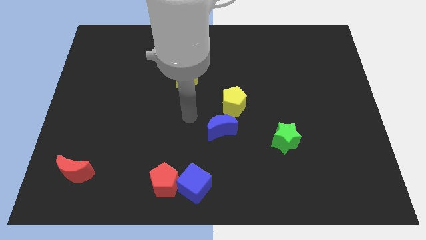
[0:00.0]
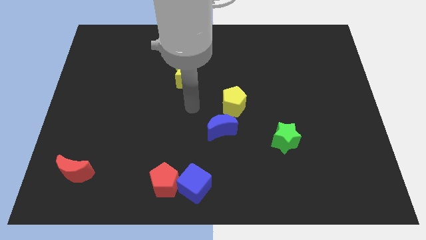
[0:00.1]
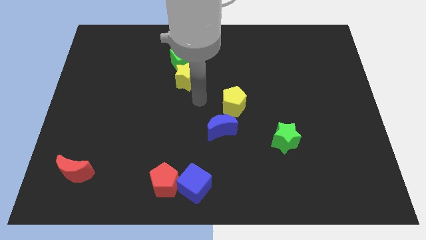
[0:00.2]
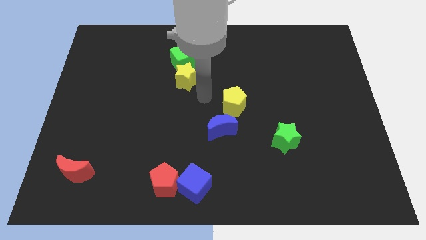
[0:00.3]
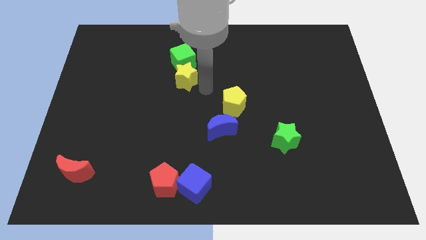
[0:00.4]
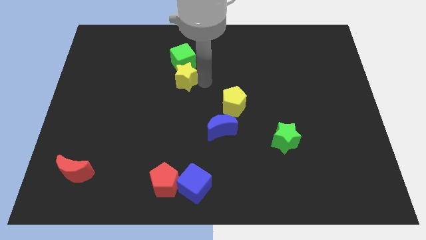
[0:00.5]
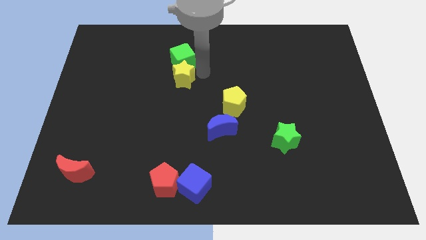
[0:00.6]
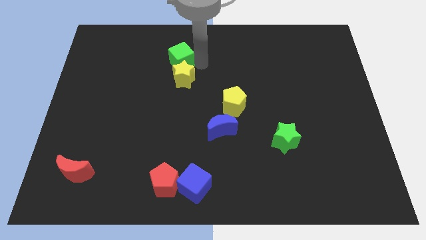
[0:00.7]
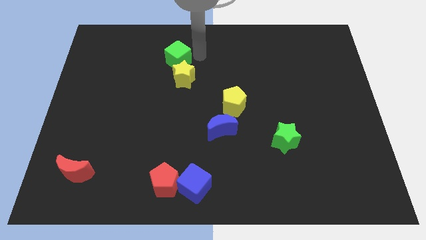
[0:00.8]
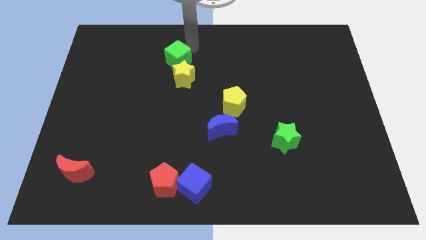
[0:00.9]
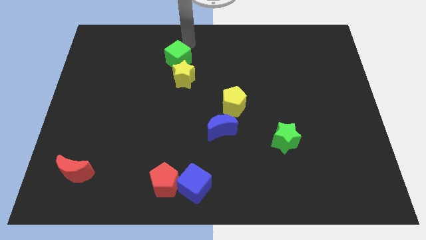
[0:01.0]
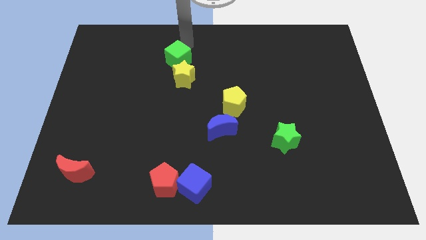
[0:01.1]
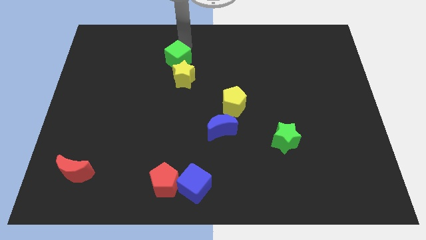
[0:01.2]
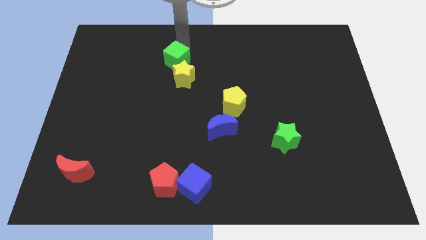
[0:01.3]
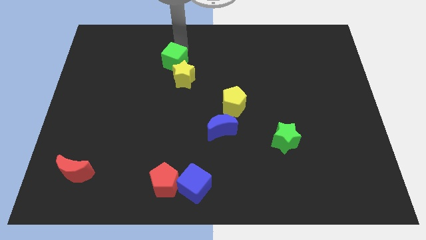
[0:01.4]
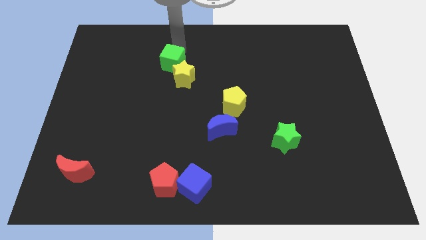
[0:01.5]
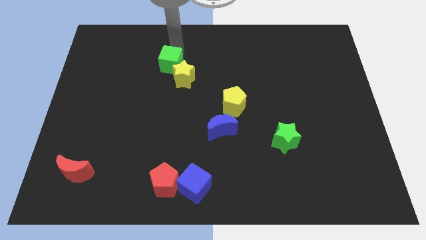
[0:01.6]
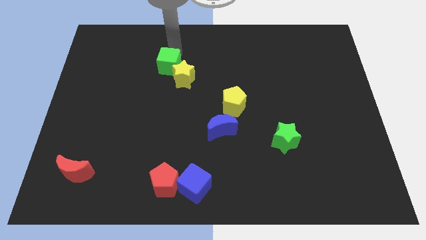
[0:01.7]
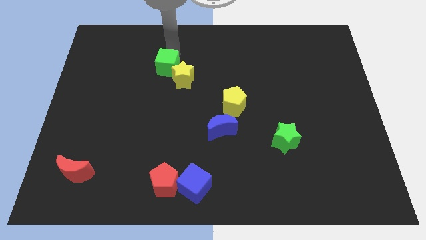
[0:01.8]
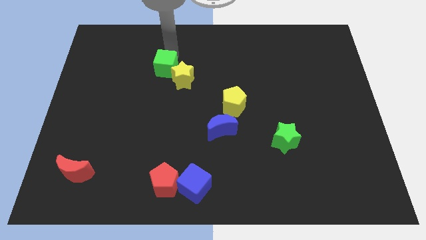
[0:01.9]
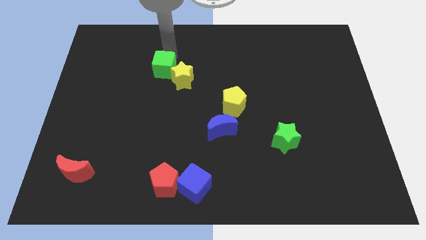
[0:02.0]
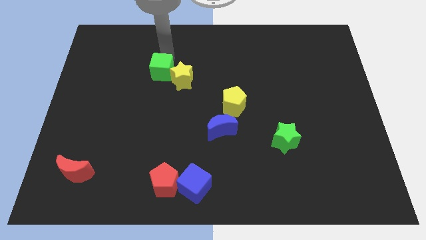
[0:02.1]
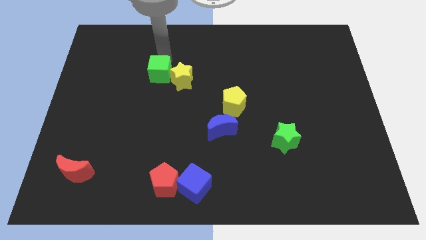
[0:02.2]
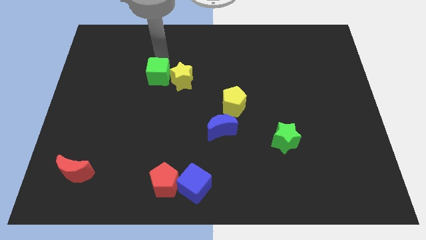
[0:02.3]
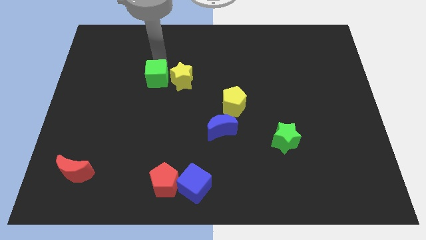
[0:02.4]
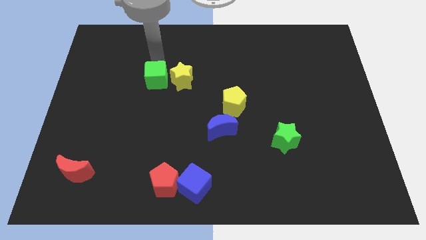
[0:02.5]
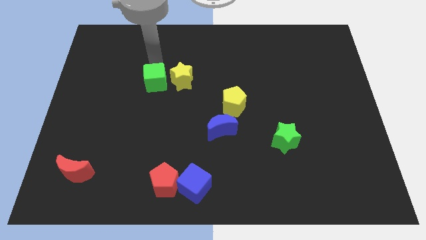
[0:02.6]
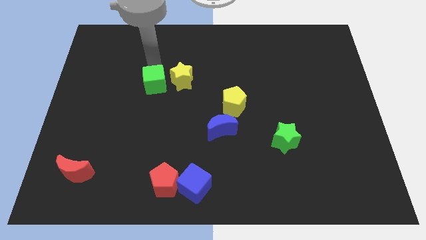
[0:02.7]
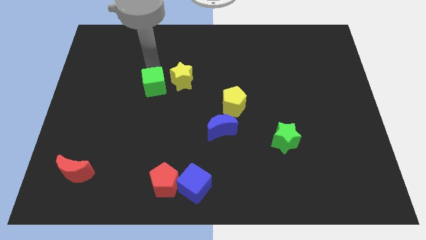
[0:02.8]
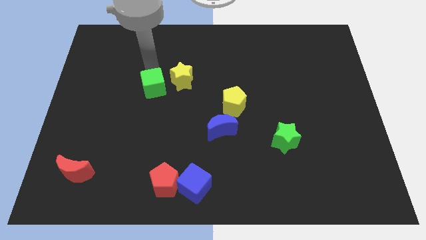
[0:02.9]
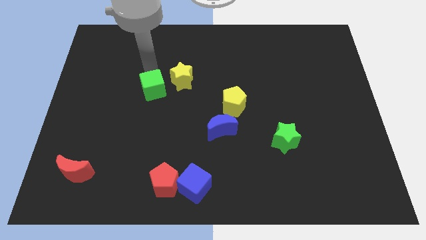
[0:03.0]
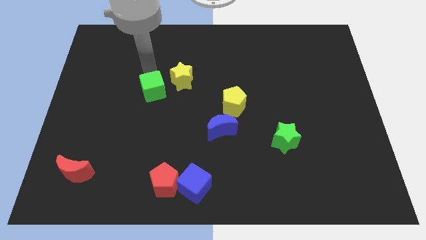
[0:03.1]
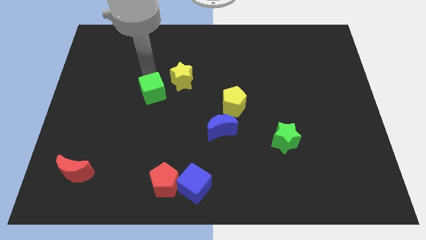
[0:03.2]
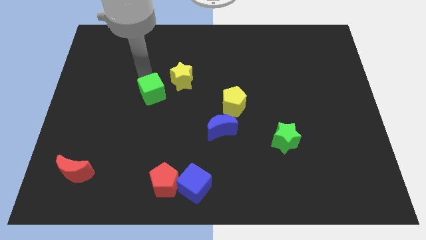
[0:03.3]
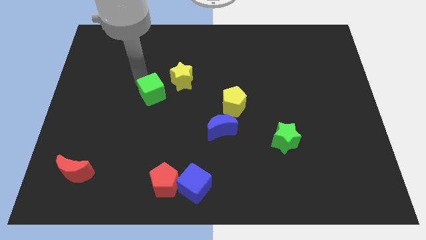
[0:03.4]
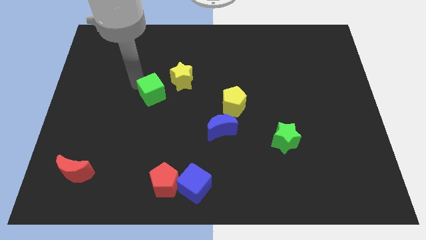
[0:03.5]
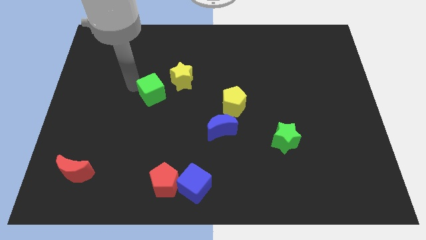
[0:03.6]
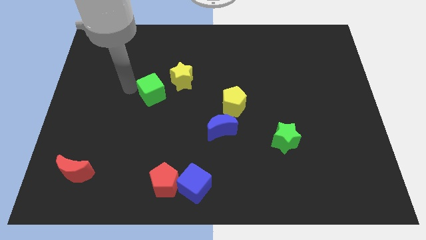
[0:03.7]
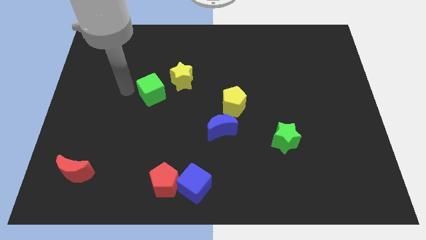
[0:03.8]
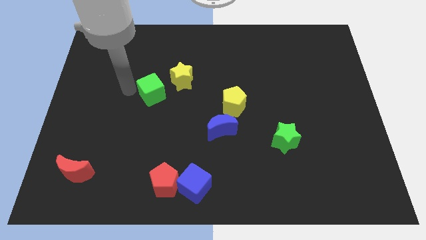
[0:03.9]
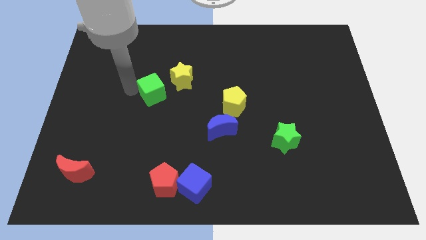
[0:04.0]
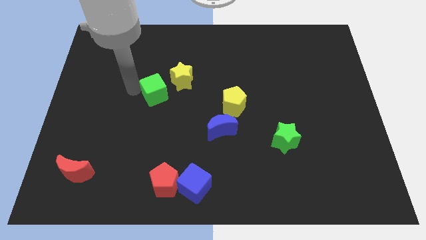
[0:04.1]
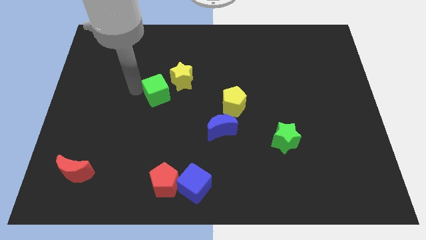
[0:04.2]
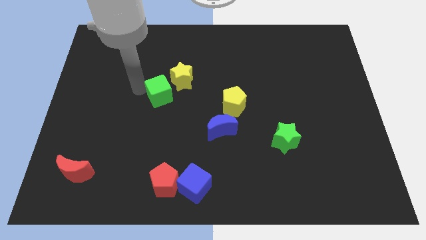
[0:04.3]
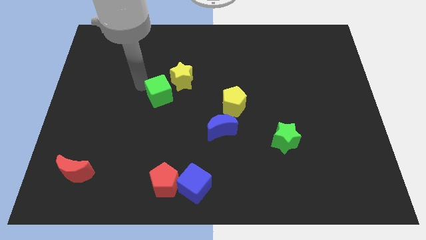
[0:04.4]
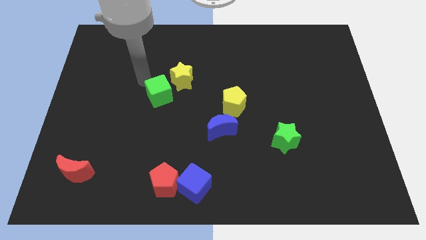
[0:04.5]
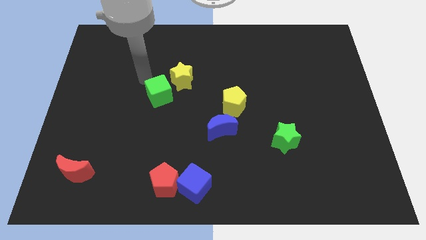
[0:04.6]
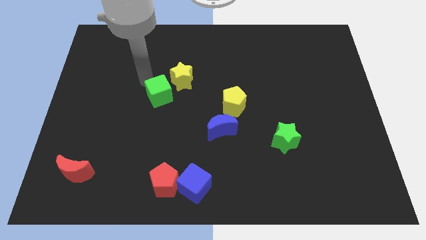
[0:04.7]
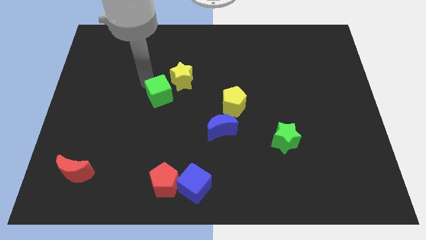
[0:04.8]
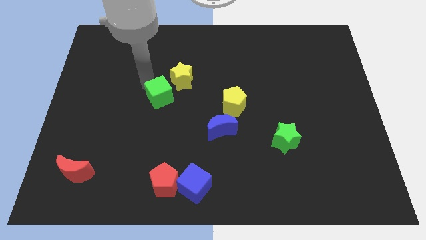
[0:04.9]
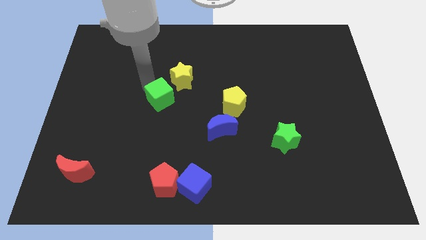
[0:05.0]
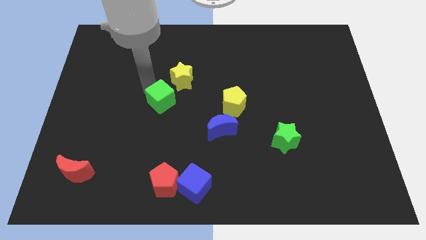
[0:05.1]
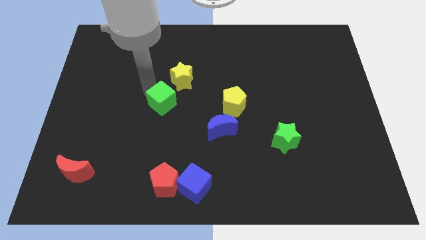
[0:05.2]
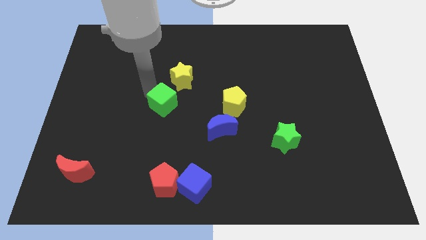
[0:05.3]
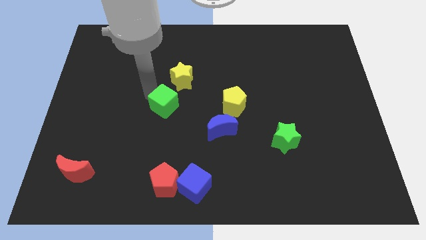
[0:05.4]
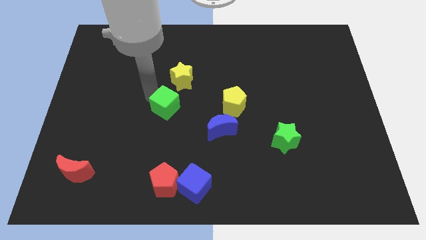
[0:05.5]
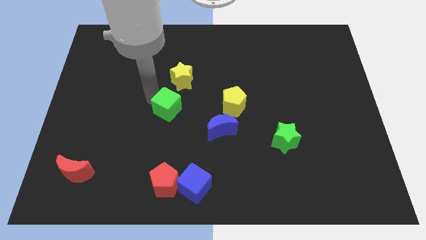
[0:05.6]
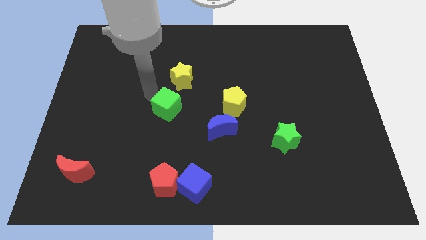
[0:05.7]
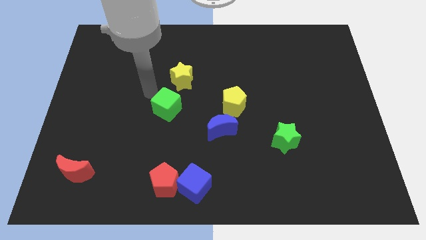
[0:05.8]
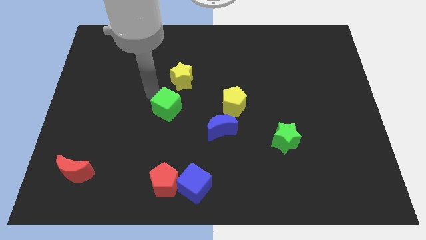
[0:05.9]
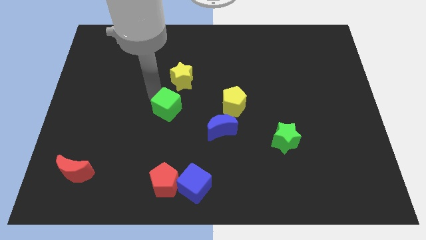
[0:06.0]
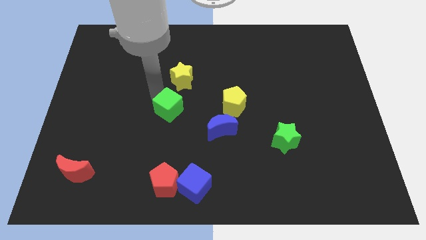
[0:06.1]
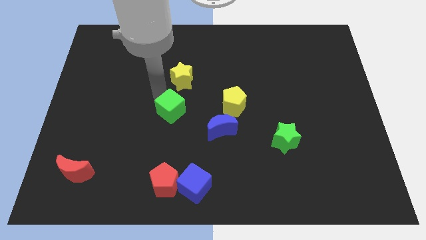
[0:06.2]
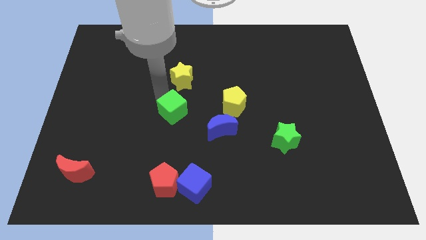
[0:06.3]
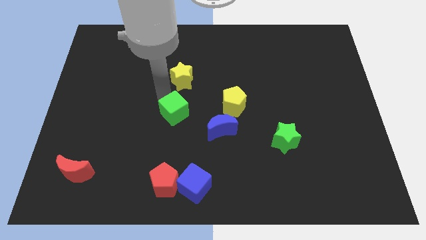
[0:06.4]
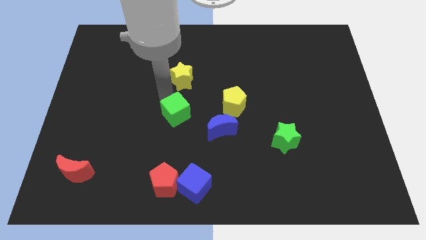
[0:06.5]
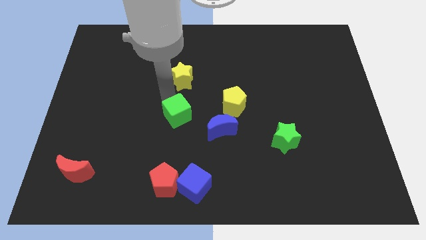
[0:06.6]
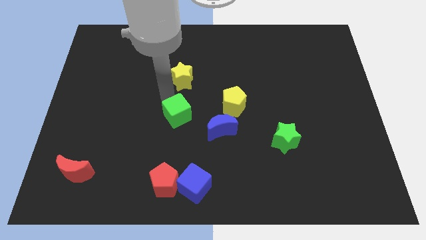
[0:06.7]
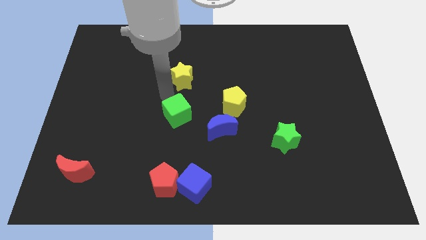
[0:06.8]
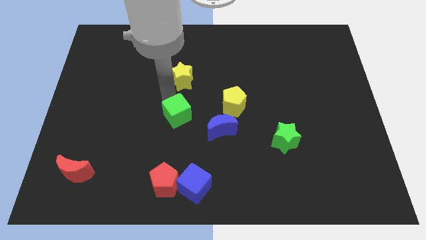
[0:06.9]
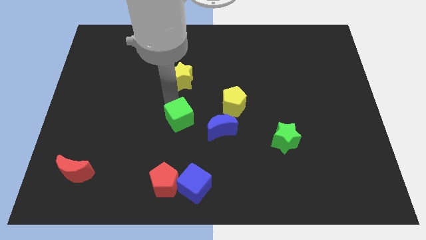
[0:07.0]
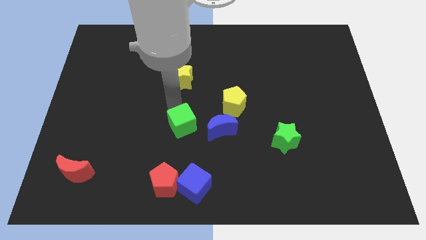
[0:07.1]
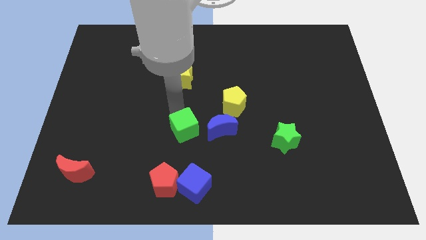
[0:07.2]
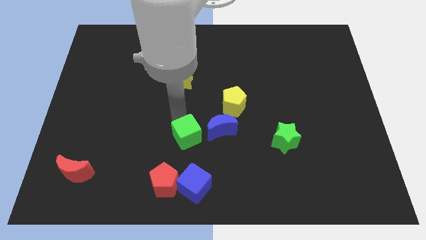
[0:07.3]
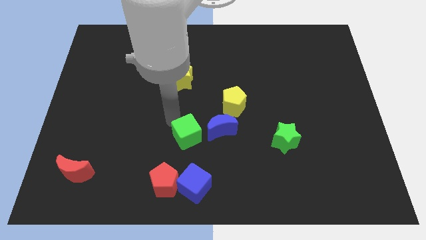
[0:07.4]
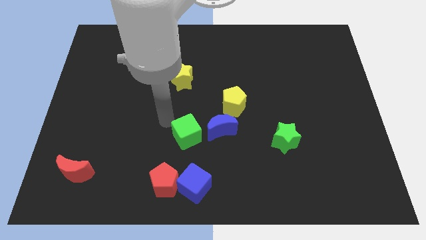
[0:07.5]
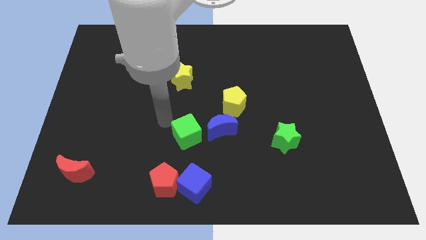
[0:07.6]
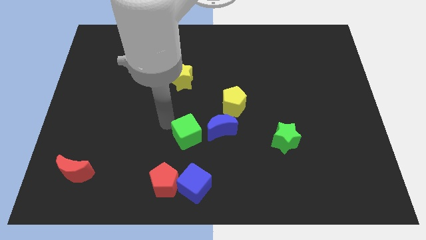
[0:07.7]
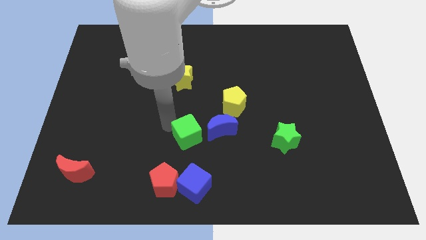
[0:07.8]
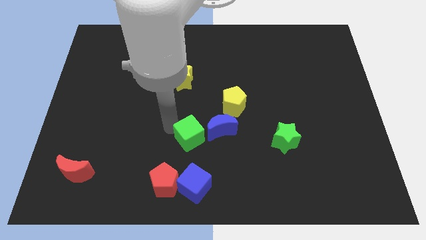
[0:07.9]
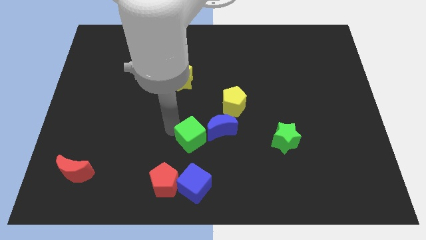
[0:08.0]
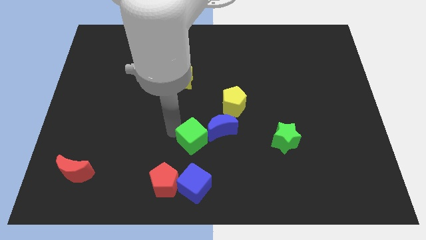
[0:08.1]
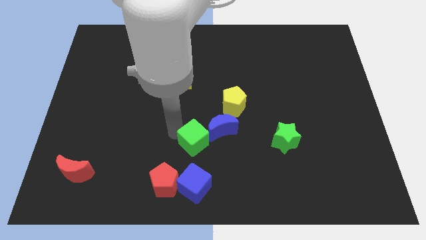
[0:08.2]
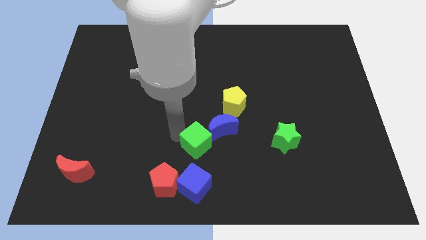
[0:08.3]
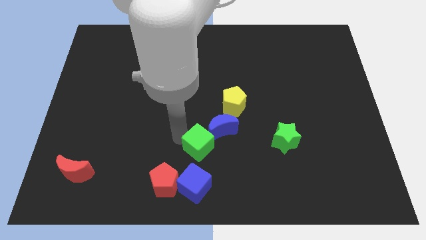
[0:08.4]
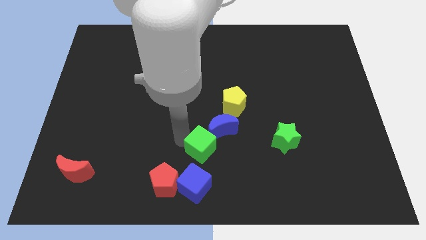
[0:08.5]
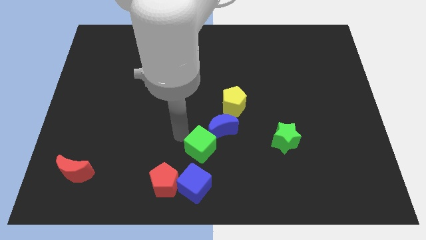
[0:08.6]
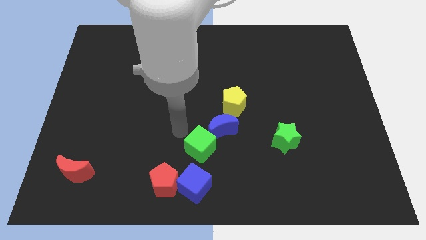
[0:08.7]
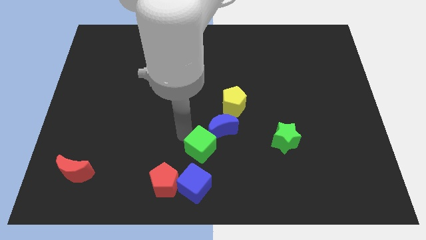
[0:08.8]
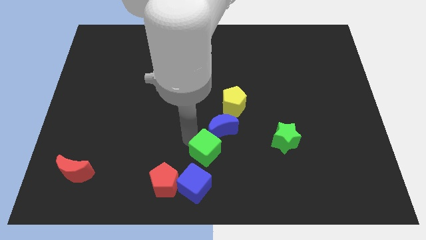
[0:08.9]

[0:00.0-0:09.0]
push the green cube to the top right side of the blue cube
